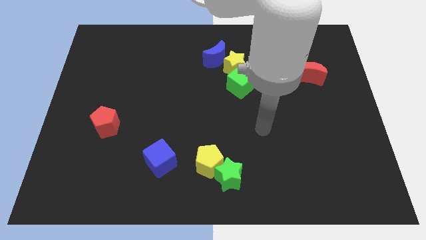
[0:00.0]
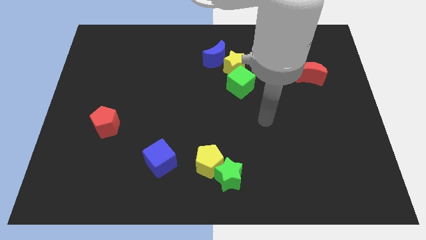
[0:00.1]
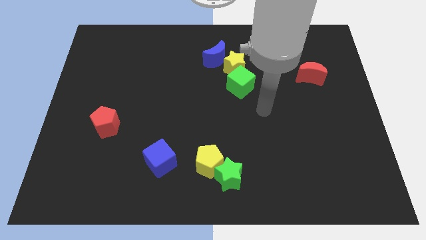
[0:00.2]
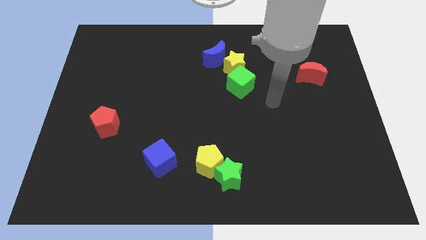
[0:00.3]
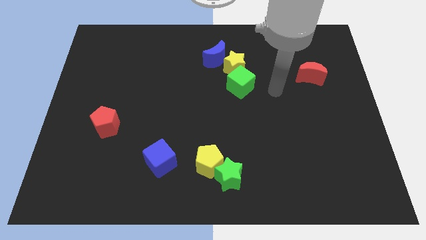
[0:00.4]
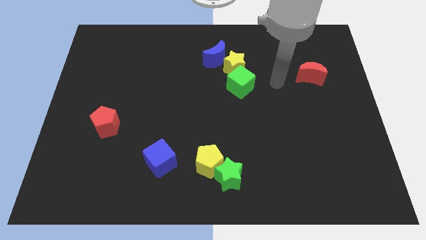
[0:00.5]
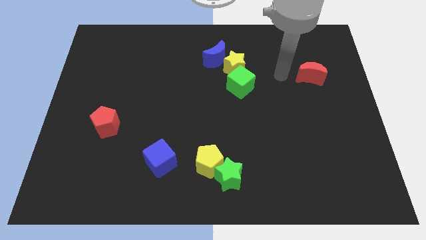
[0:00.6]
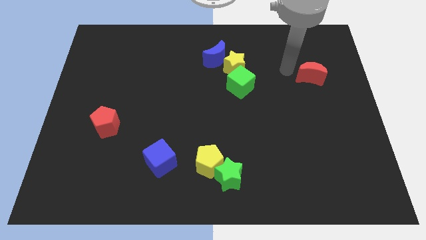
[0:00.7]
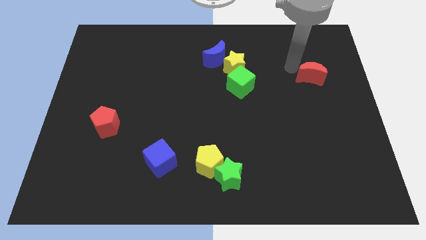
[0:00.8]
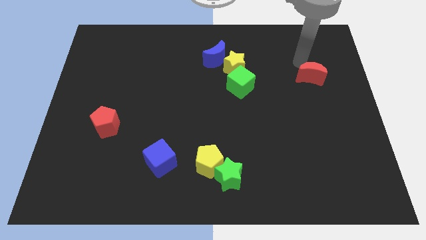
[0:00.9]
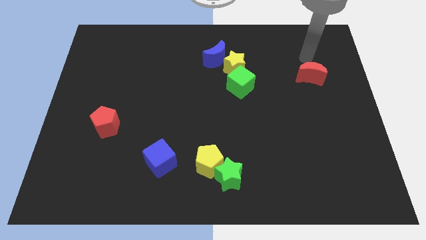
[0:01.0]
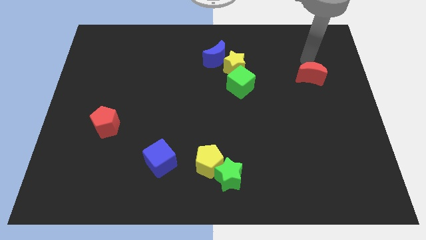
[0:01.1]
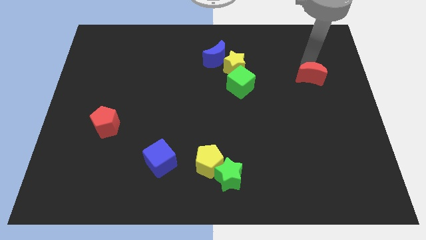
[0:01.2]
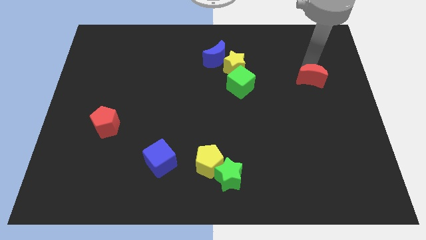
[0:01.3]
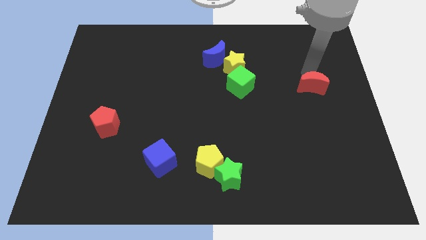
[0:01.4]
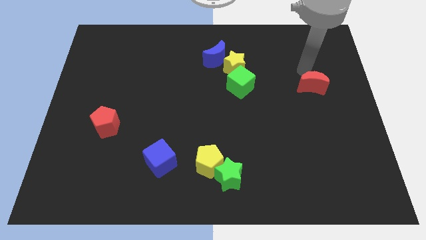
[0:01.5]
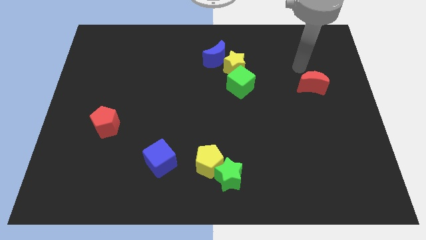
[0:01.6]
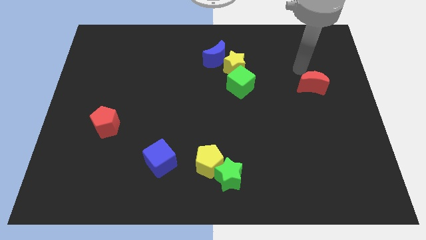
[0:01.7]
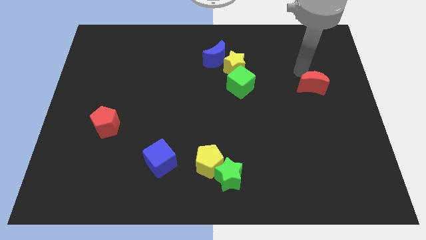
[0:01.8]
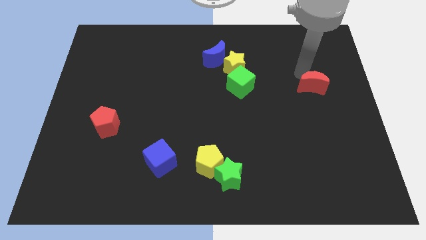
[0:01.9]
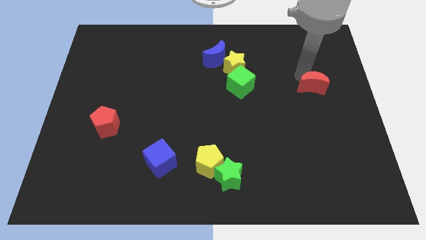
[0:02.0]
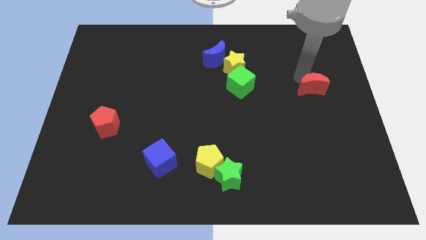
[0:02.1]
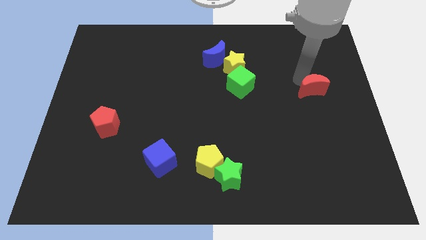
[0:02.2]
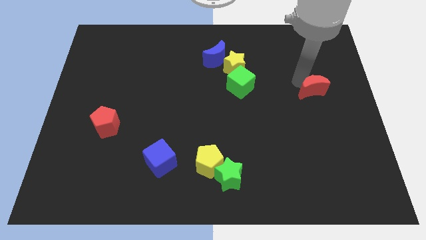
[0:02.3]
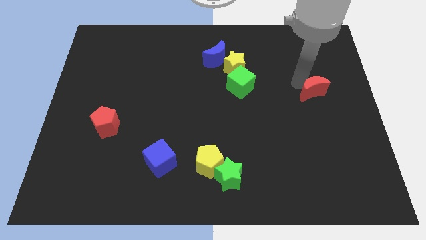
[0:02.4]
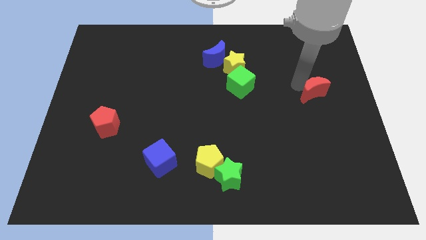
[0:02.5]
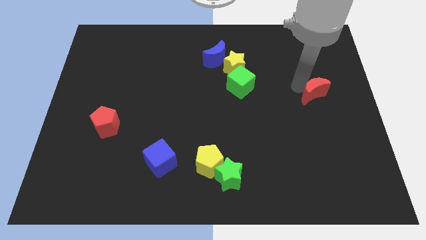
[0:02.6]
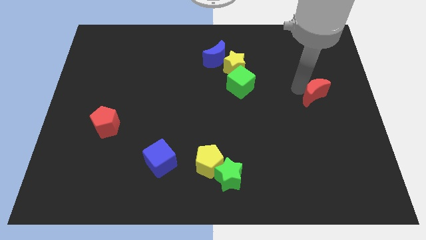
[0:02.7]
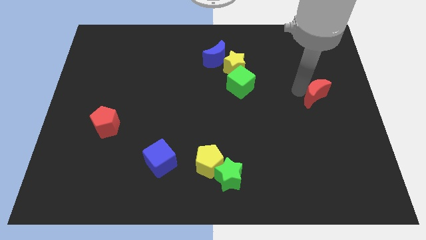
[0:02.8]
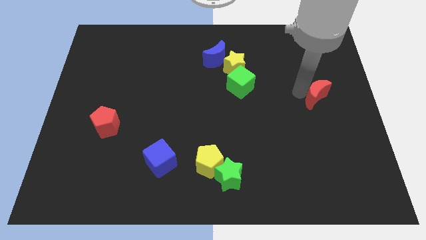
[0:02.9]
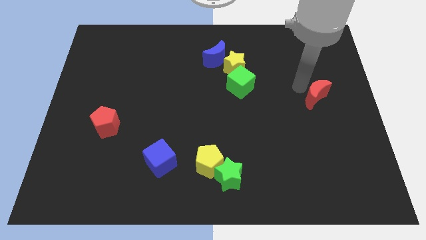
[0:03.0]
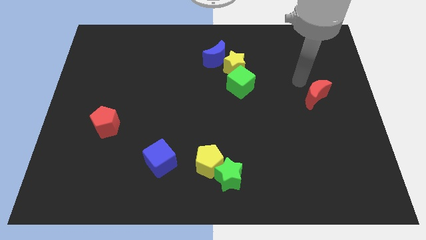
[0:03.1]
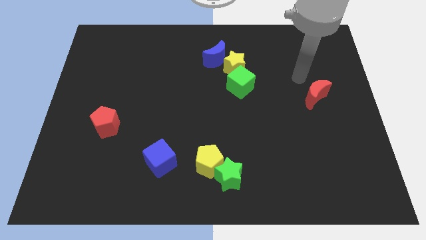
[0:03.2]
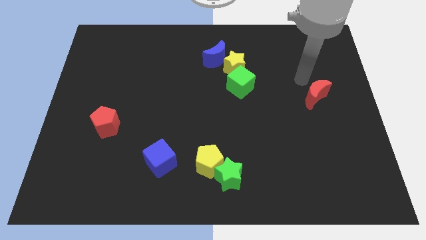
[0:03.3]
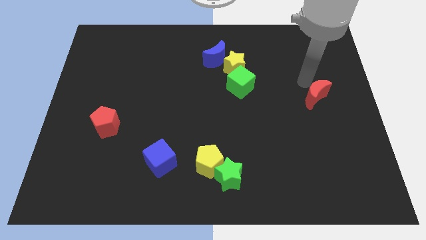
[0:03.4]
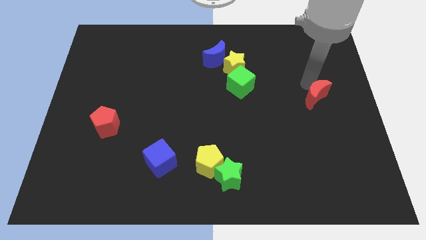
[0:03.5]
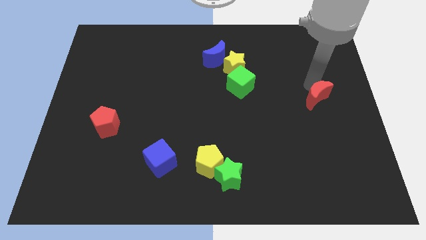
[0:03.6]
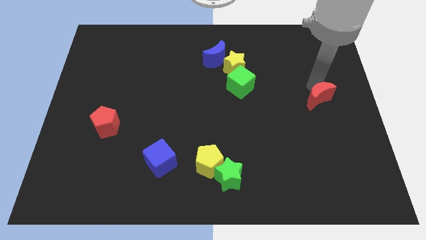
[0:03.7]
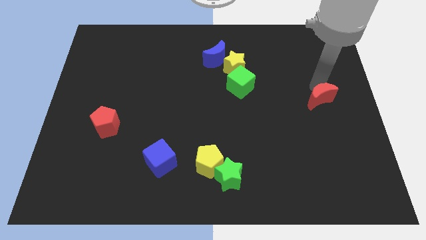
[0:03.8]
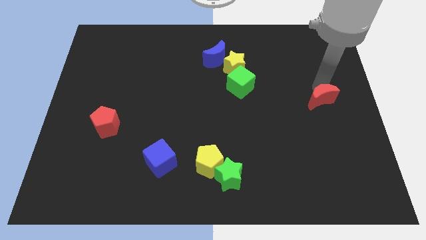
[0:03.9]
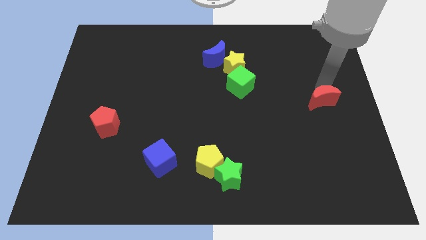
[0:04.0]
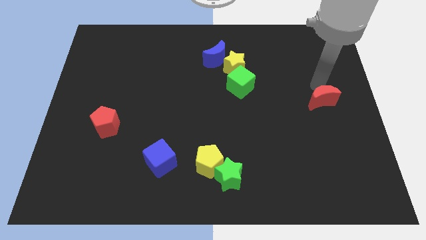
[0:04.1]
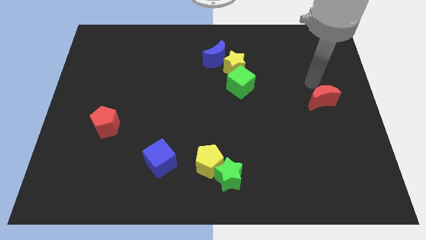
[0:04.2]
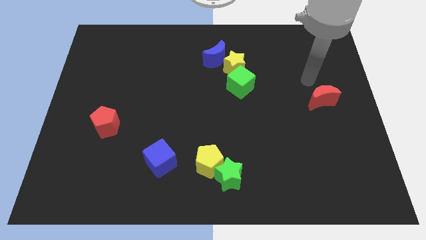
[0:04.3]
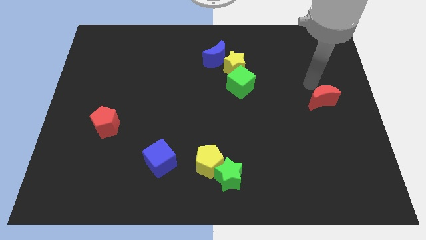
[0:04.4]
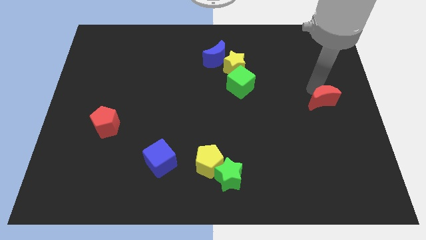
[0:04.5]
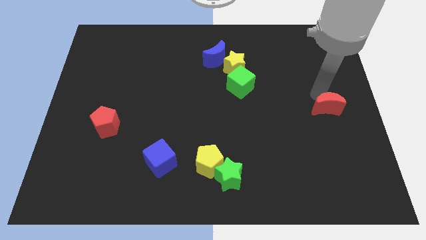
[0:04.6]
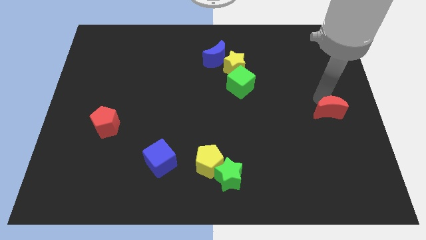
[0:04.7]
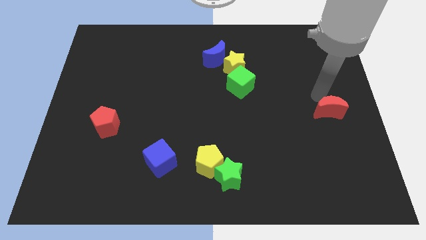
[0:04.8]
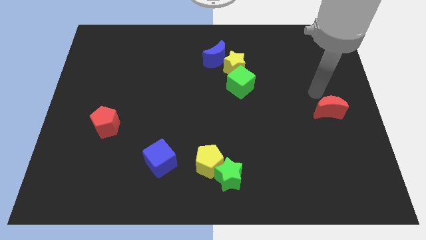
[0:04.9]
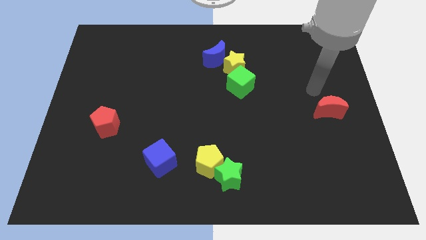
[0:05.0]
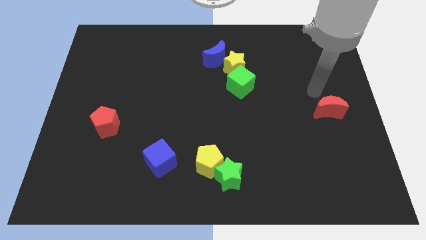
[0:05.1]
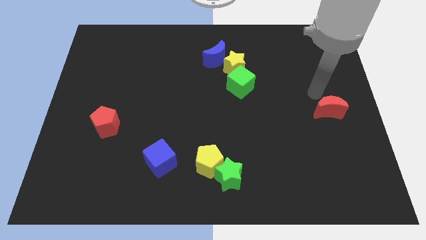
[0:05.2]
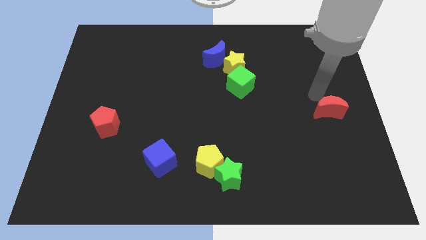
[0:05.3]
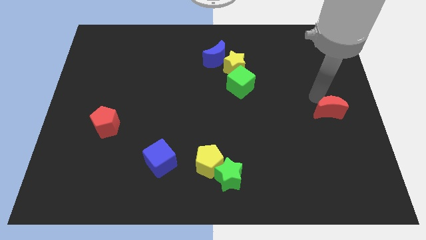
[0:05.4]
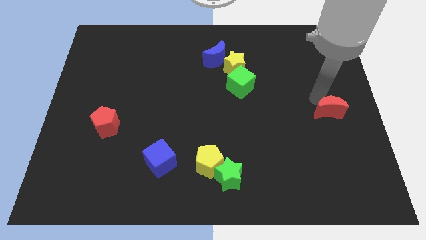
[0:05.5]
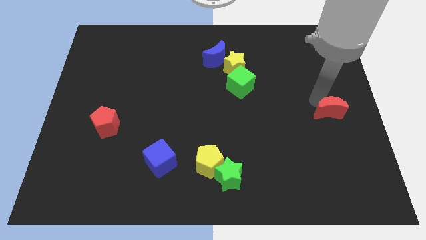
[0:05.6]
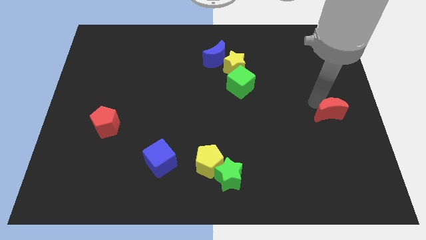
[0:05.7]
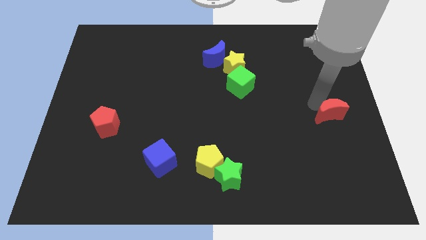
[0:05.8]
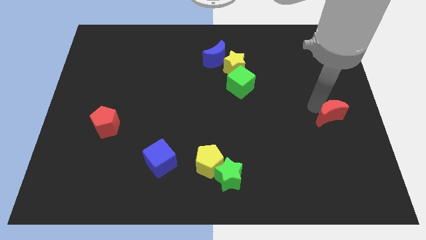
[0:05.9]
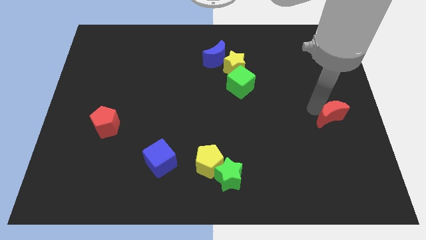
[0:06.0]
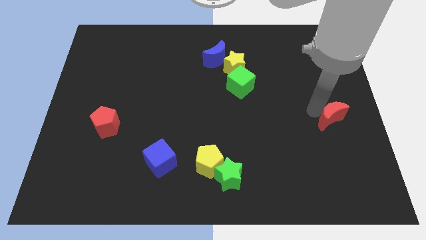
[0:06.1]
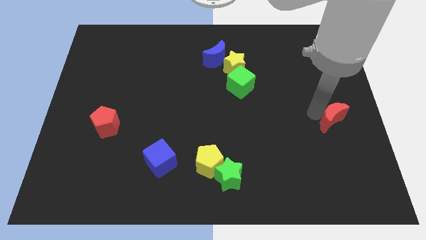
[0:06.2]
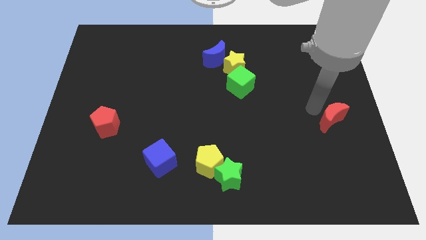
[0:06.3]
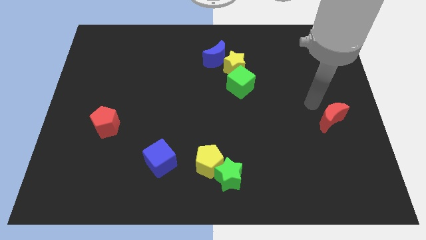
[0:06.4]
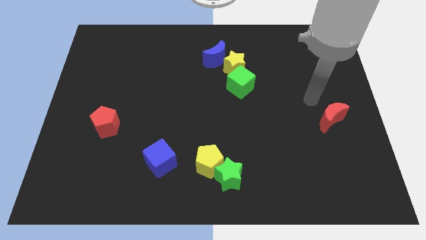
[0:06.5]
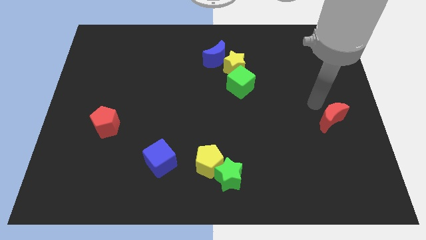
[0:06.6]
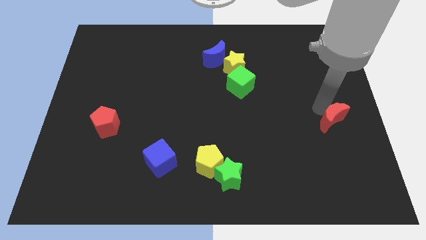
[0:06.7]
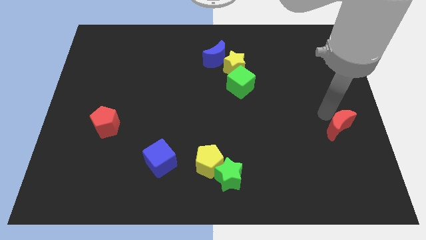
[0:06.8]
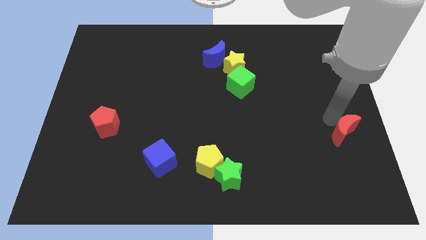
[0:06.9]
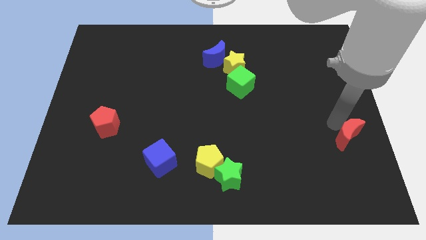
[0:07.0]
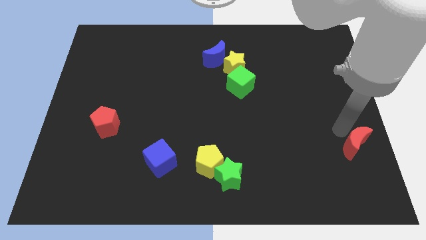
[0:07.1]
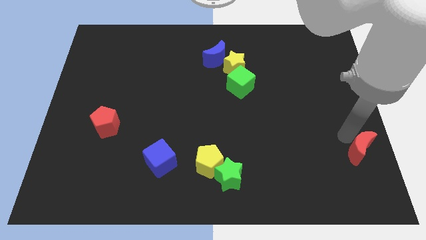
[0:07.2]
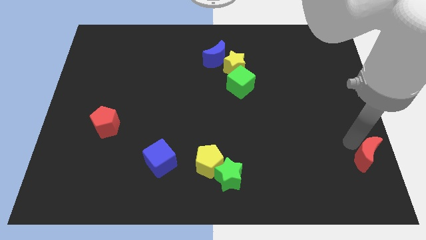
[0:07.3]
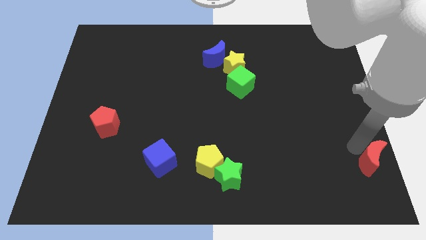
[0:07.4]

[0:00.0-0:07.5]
put the red moon to the lower right corner
